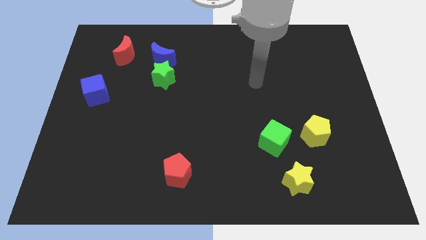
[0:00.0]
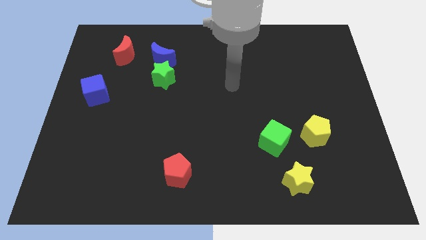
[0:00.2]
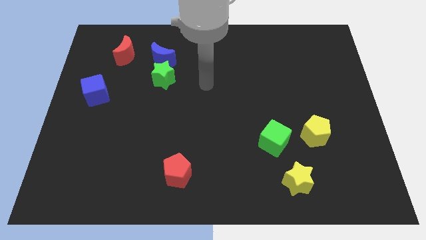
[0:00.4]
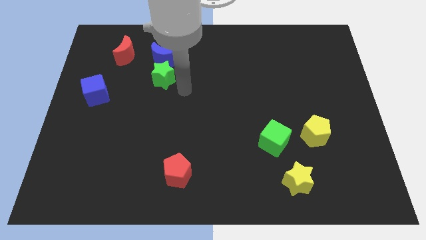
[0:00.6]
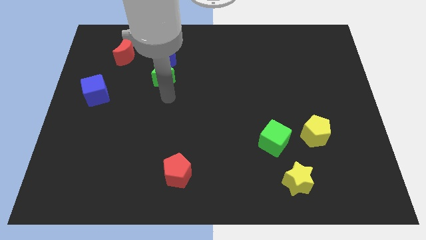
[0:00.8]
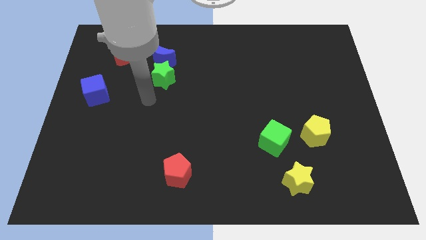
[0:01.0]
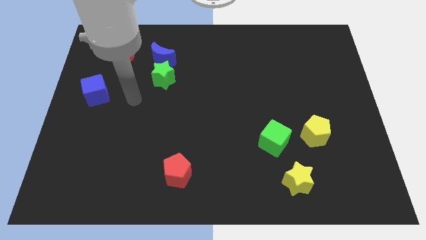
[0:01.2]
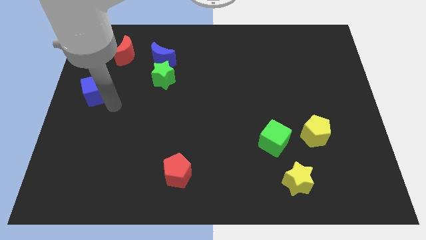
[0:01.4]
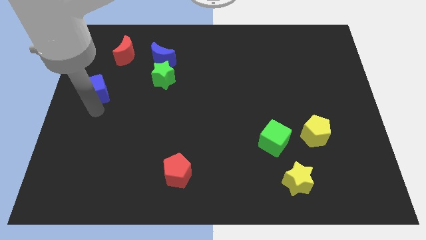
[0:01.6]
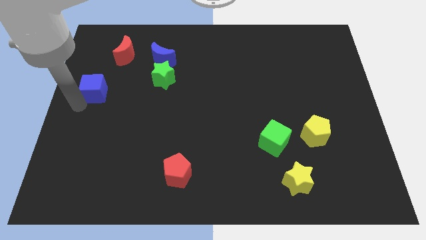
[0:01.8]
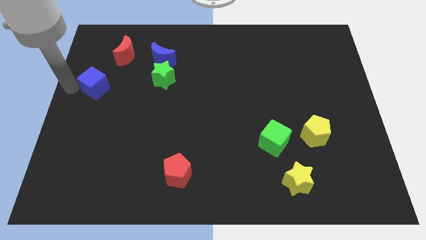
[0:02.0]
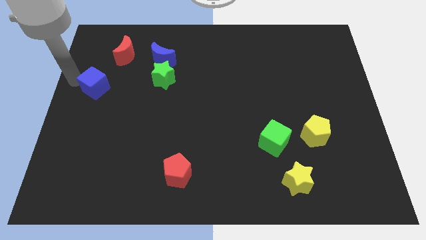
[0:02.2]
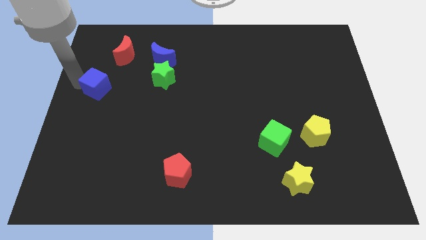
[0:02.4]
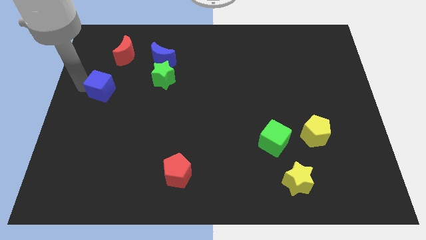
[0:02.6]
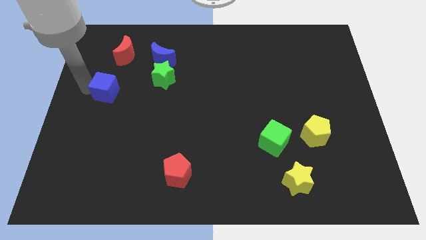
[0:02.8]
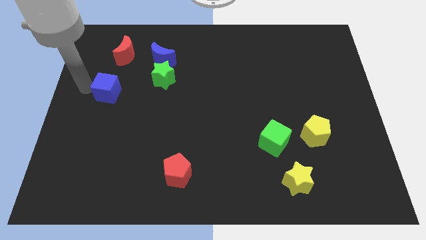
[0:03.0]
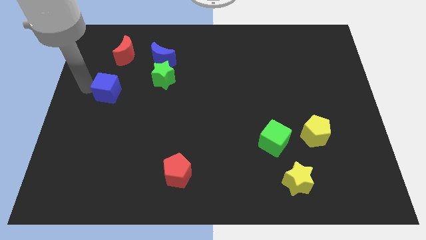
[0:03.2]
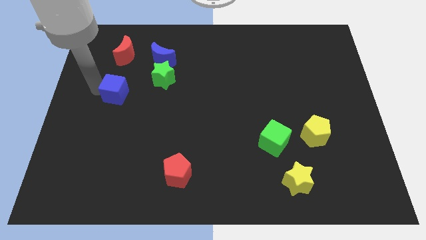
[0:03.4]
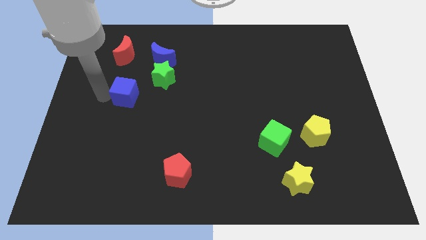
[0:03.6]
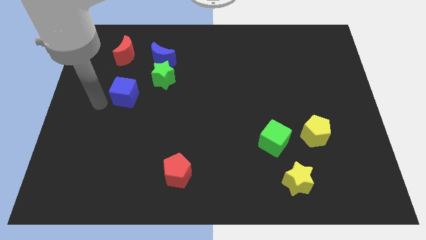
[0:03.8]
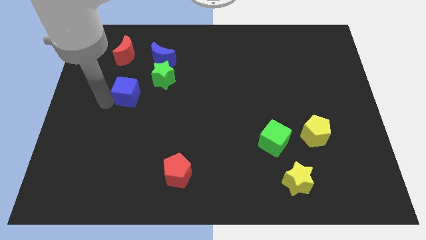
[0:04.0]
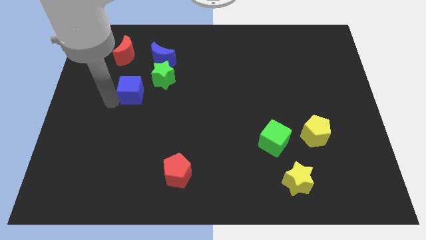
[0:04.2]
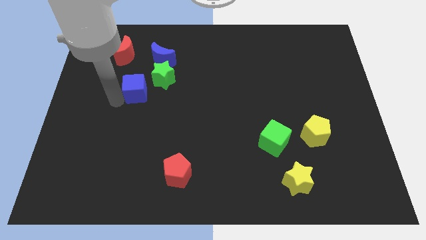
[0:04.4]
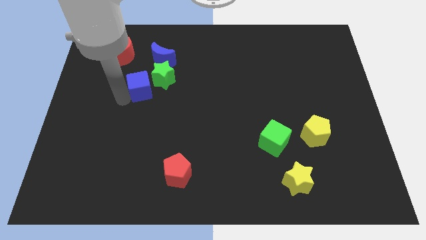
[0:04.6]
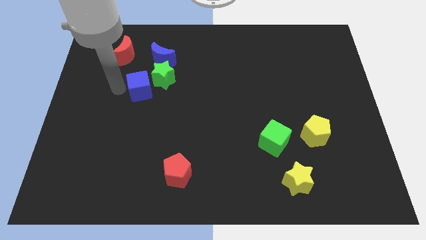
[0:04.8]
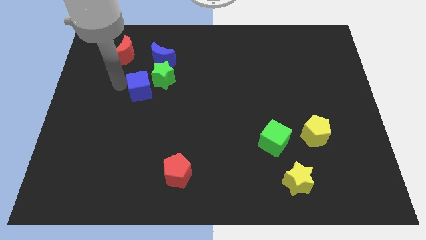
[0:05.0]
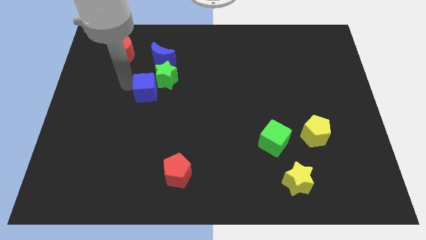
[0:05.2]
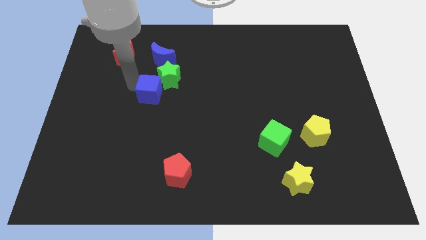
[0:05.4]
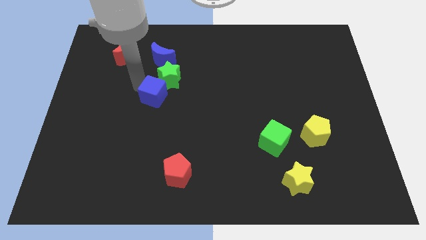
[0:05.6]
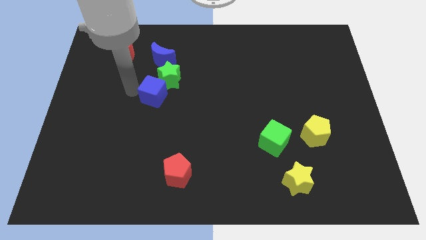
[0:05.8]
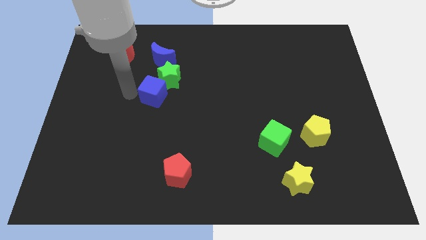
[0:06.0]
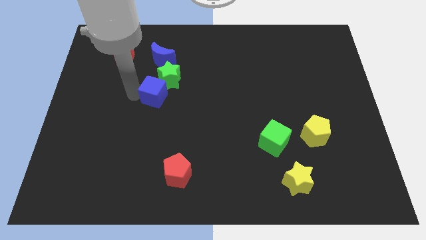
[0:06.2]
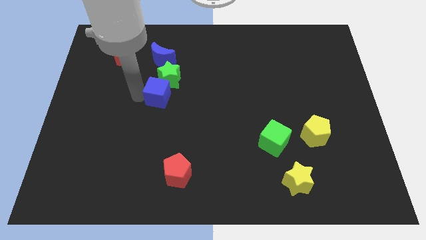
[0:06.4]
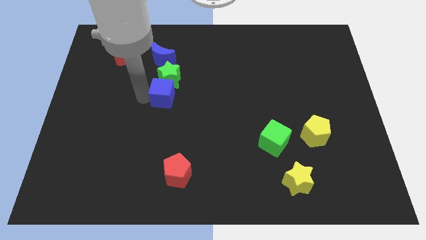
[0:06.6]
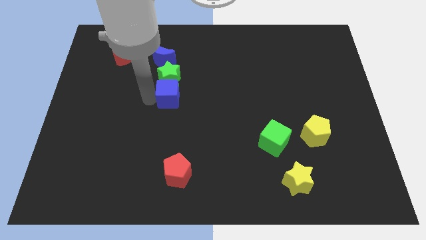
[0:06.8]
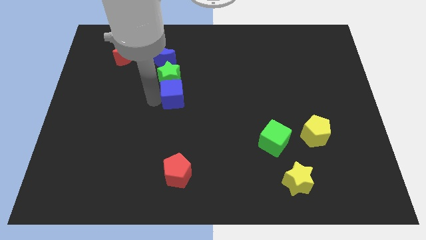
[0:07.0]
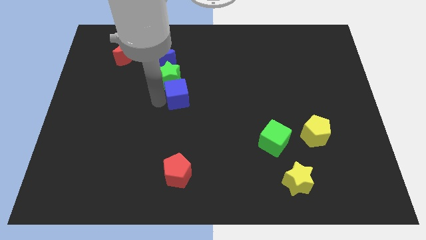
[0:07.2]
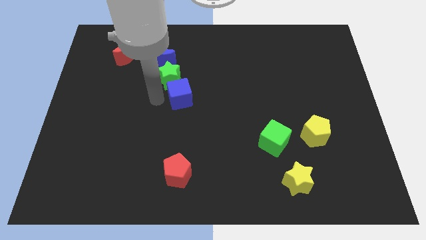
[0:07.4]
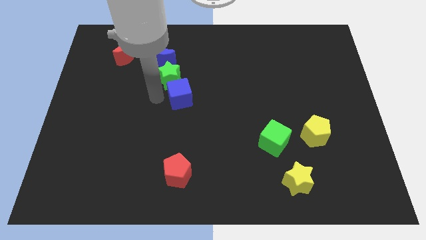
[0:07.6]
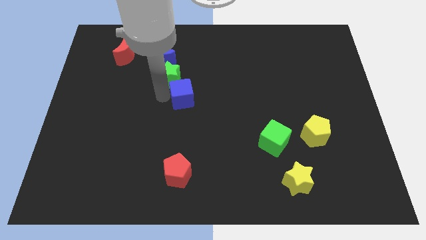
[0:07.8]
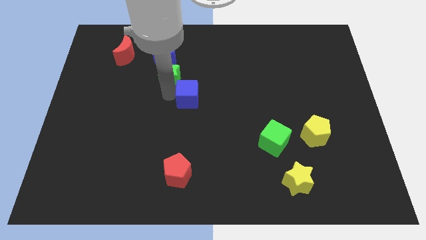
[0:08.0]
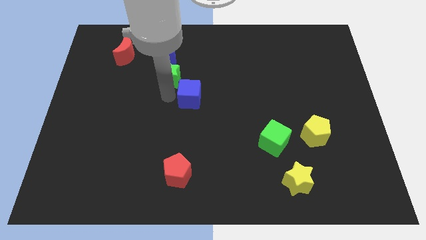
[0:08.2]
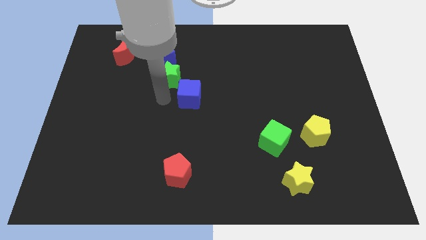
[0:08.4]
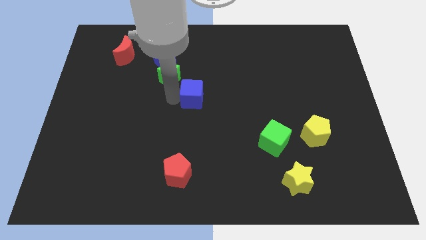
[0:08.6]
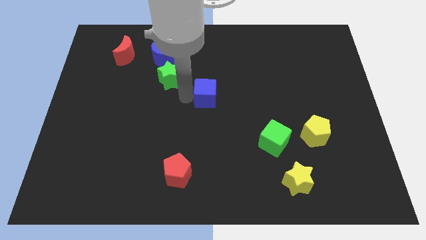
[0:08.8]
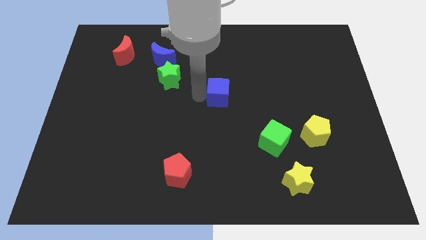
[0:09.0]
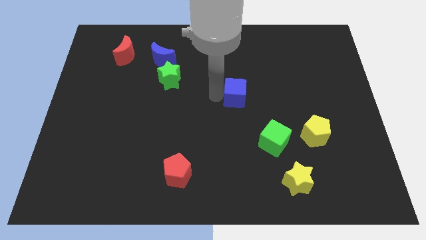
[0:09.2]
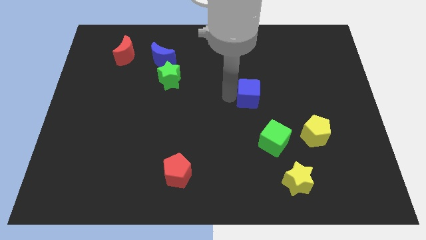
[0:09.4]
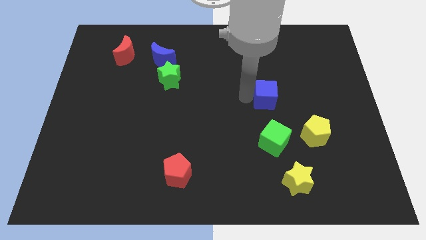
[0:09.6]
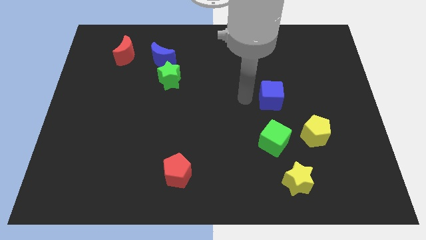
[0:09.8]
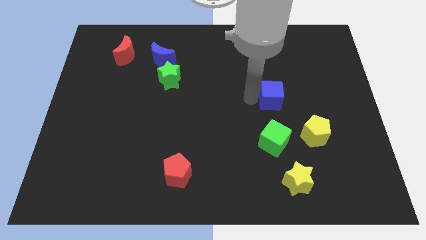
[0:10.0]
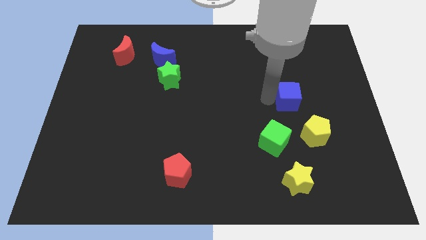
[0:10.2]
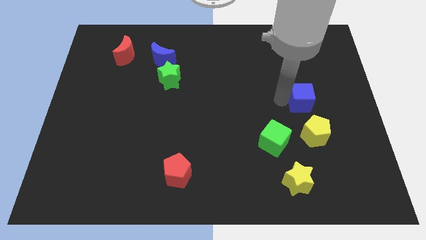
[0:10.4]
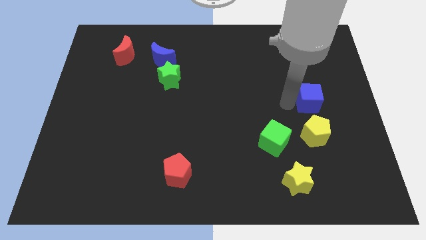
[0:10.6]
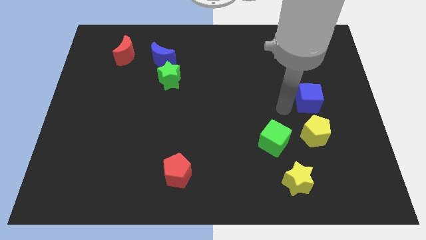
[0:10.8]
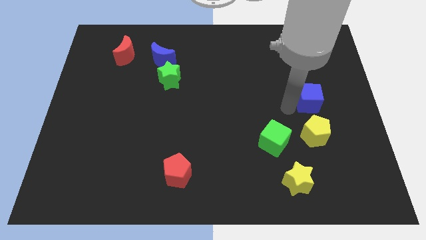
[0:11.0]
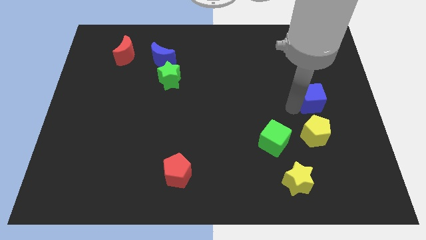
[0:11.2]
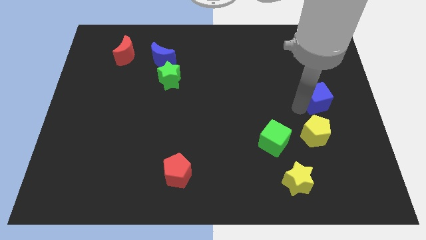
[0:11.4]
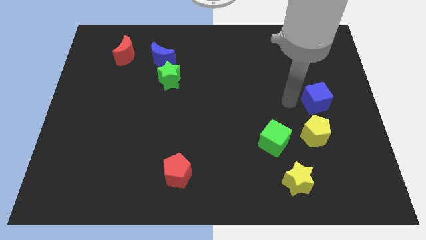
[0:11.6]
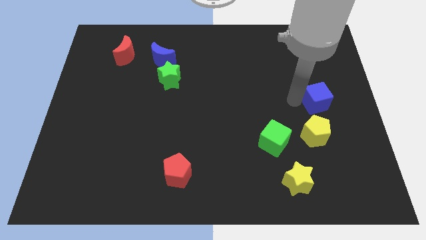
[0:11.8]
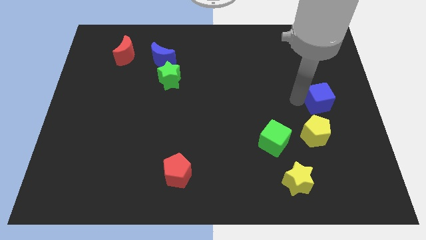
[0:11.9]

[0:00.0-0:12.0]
move the blue cube to the right side

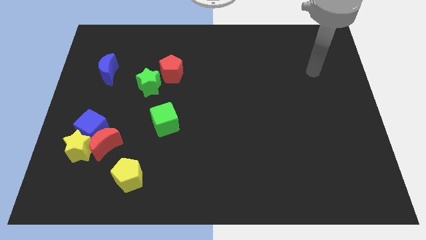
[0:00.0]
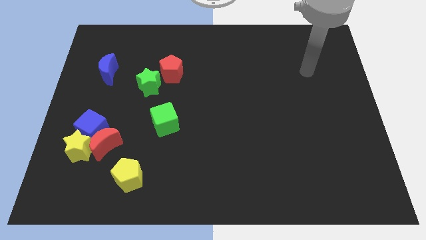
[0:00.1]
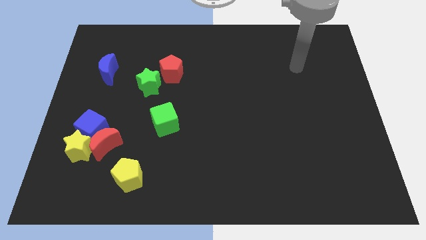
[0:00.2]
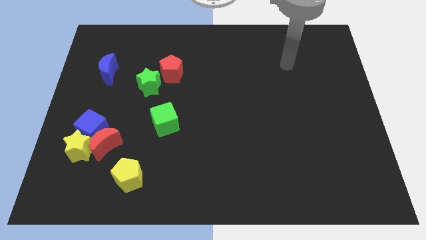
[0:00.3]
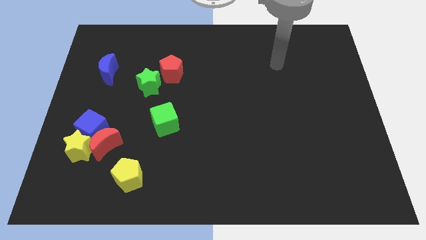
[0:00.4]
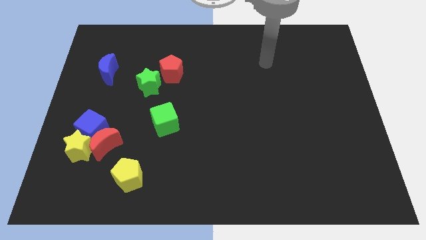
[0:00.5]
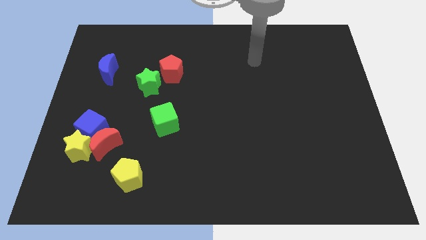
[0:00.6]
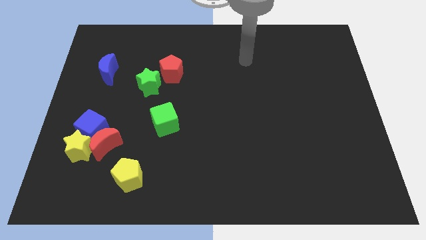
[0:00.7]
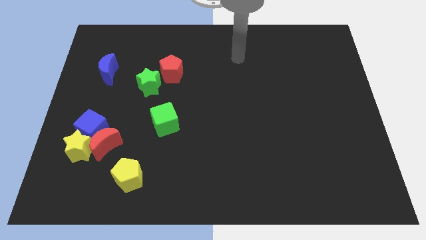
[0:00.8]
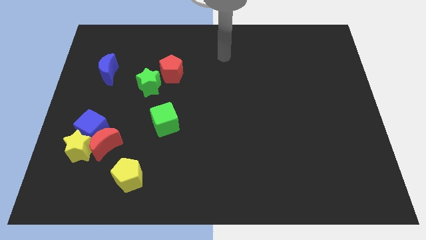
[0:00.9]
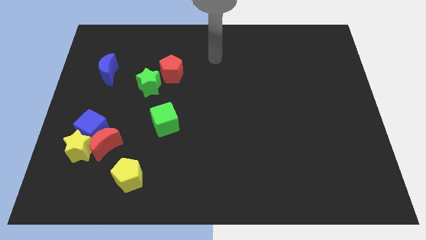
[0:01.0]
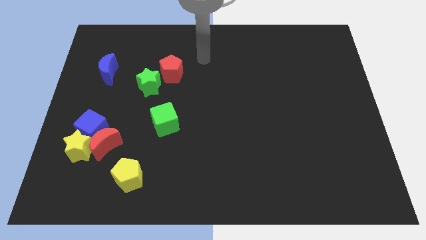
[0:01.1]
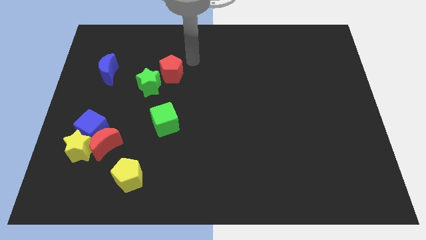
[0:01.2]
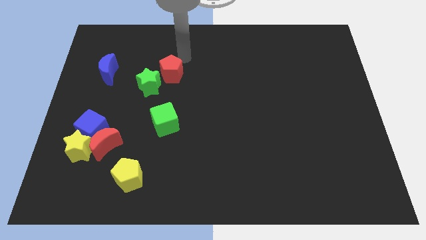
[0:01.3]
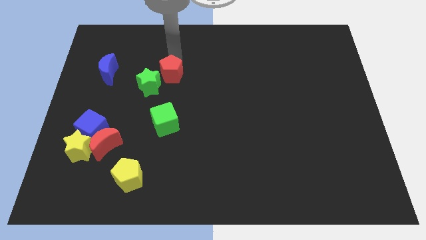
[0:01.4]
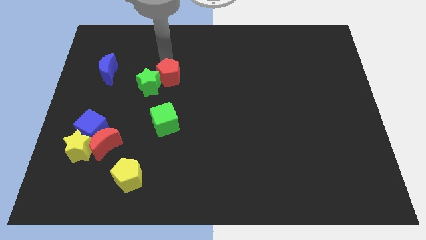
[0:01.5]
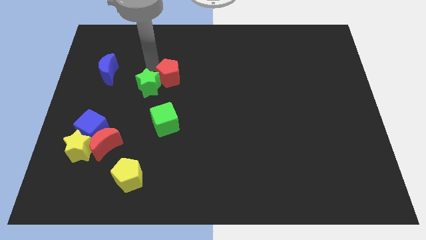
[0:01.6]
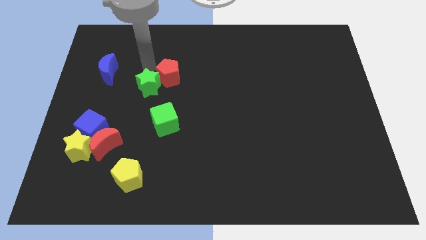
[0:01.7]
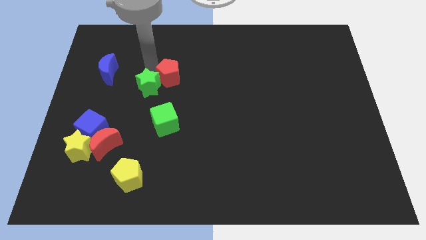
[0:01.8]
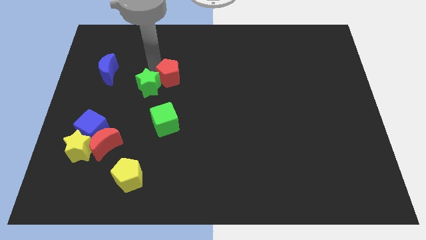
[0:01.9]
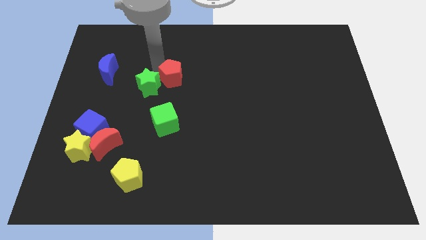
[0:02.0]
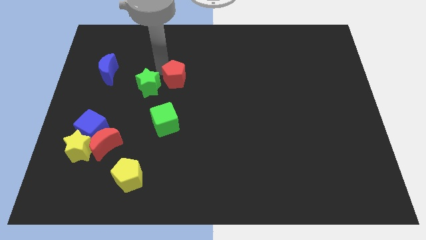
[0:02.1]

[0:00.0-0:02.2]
push the red pentagon to the center
